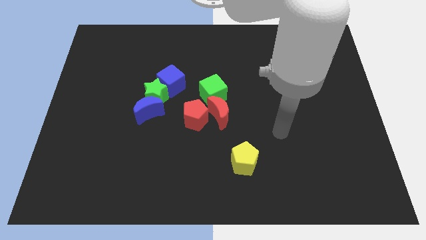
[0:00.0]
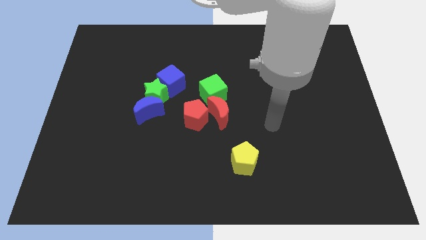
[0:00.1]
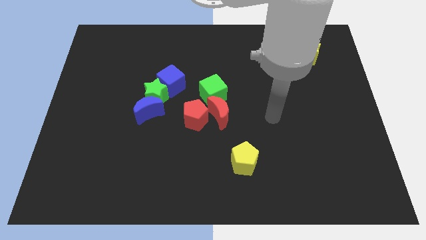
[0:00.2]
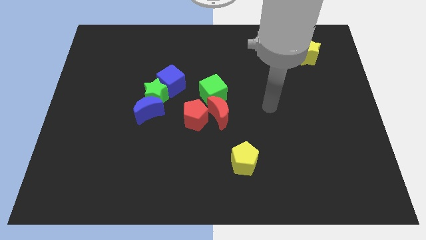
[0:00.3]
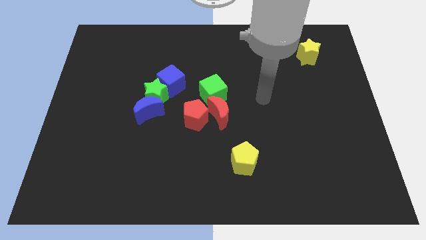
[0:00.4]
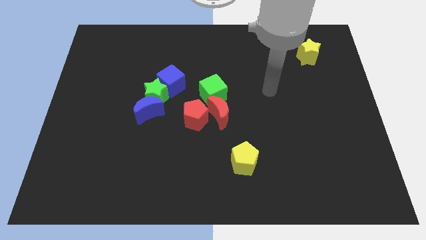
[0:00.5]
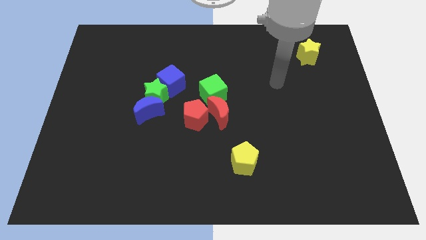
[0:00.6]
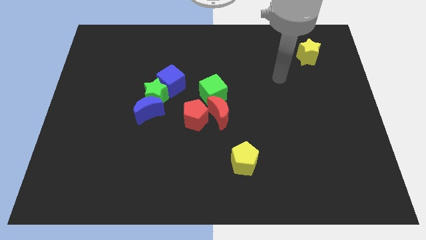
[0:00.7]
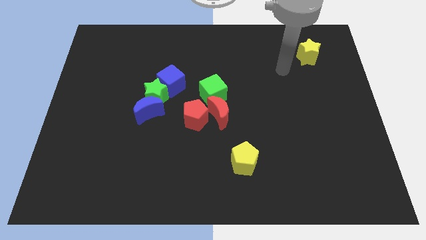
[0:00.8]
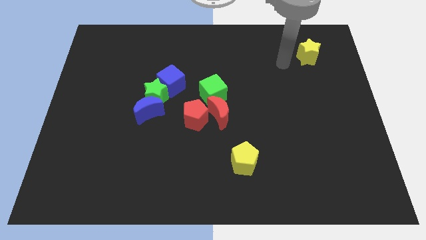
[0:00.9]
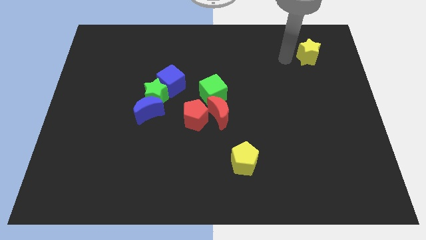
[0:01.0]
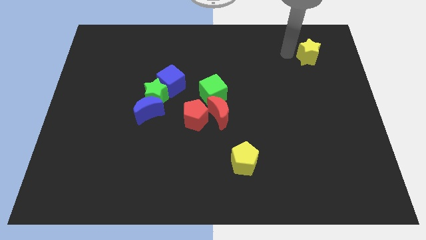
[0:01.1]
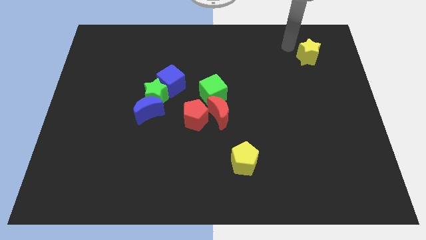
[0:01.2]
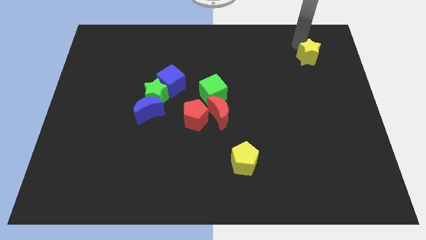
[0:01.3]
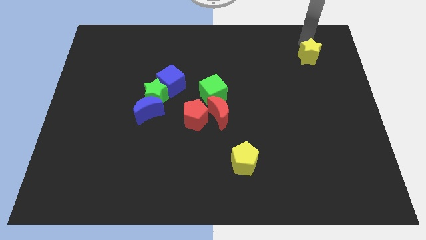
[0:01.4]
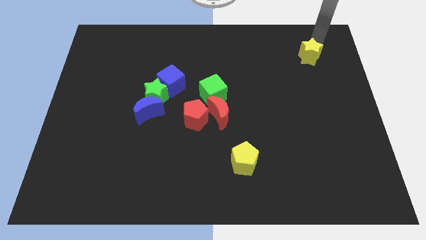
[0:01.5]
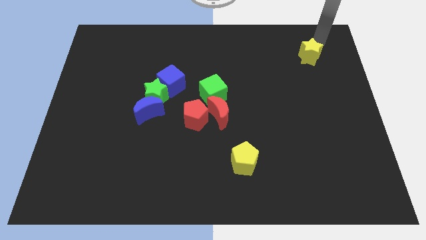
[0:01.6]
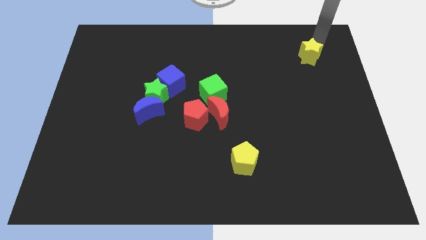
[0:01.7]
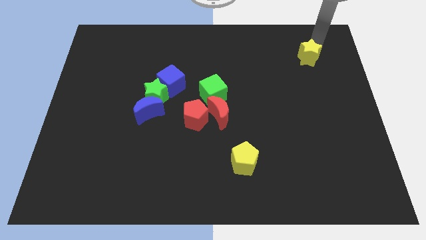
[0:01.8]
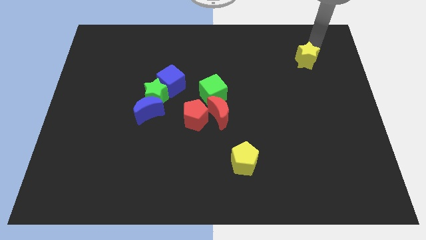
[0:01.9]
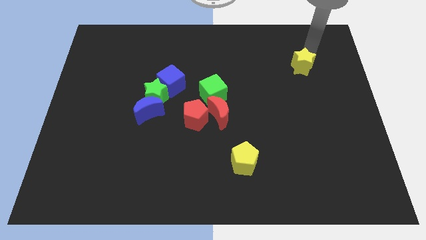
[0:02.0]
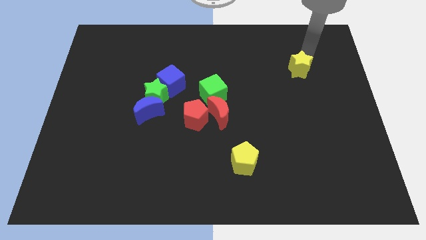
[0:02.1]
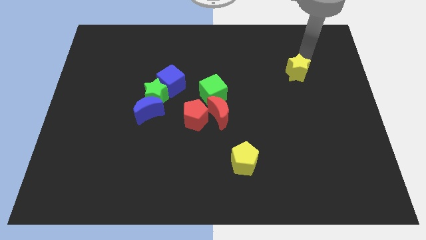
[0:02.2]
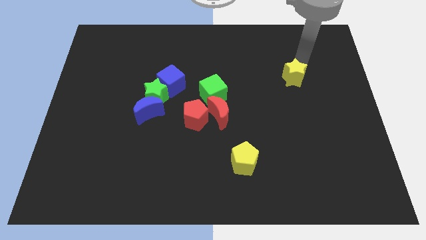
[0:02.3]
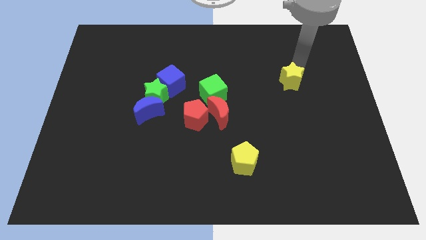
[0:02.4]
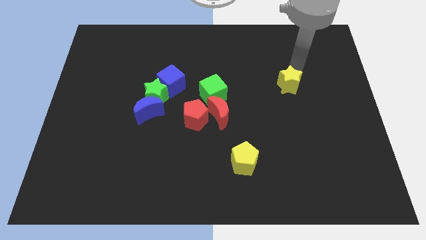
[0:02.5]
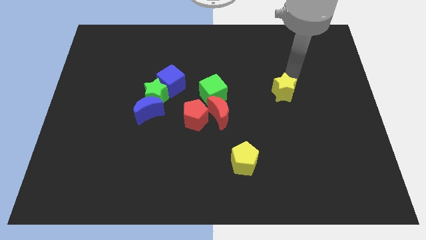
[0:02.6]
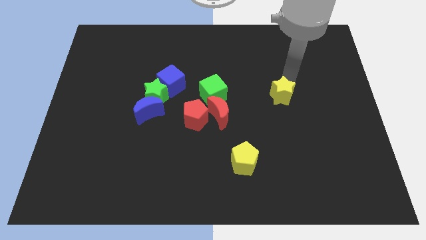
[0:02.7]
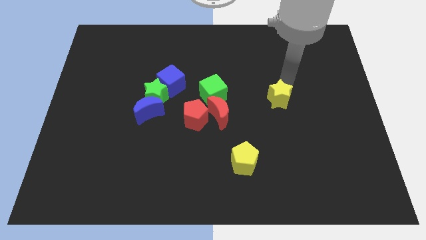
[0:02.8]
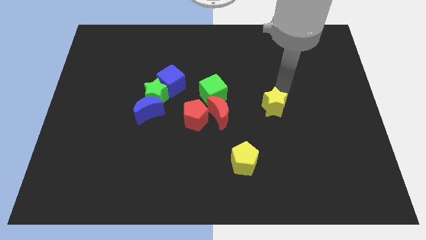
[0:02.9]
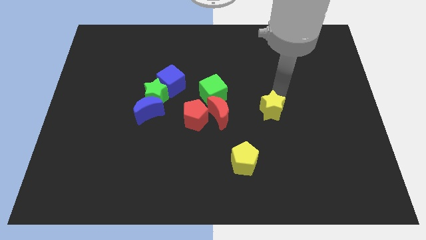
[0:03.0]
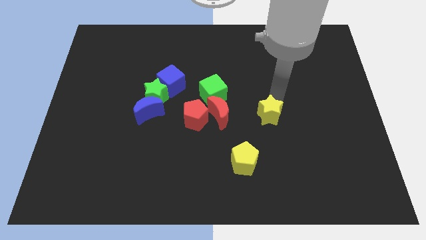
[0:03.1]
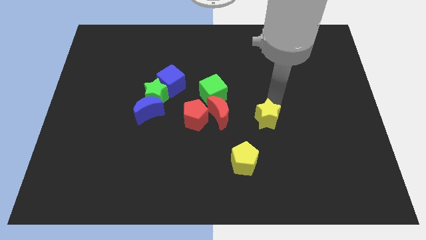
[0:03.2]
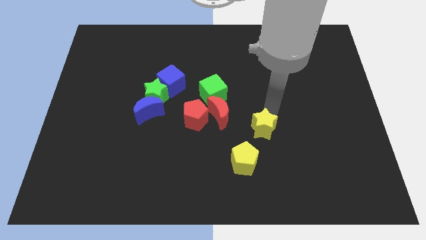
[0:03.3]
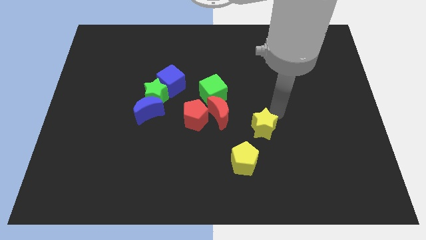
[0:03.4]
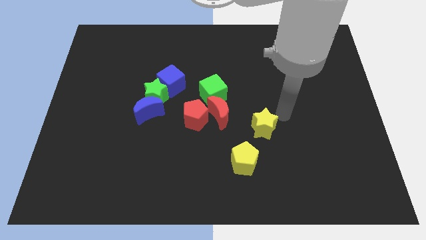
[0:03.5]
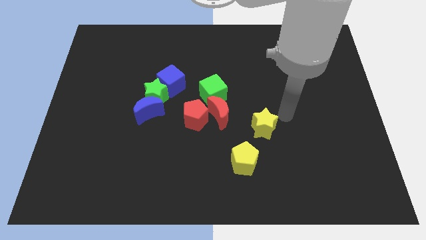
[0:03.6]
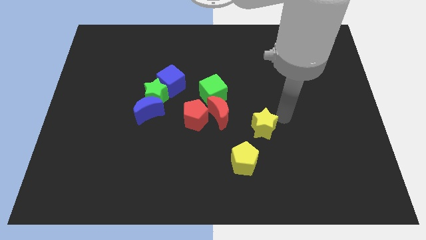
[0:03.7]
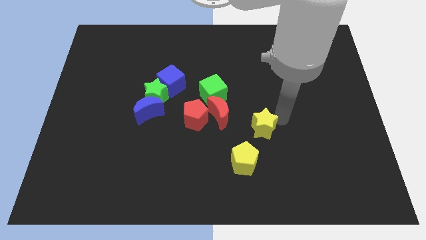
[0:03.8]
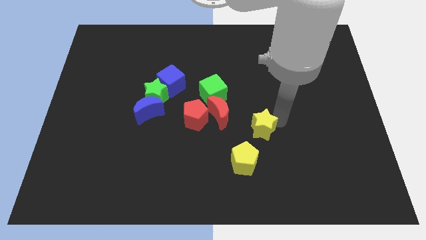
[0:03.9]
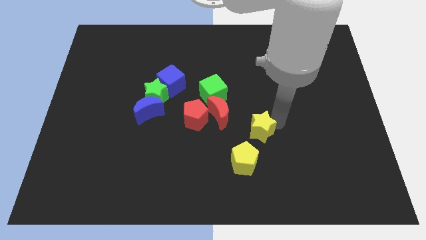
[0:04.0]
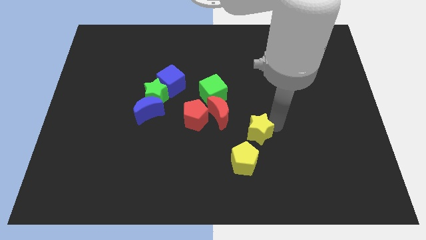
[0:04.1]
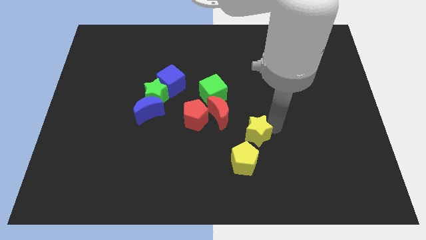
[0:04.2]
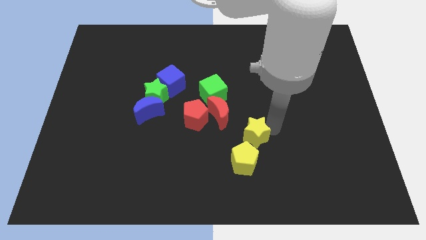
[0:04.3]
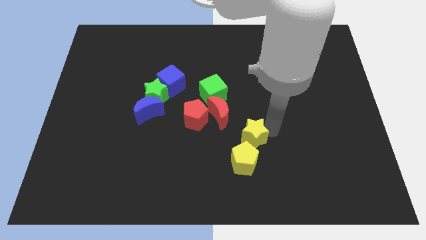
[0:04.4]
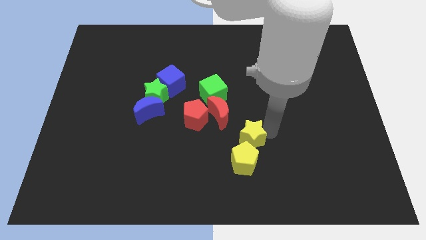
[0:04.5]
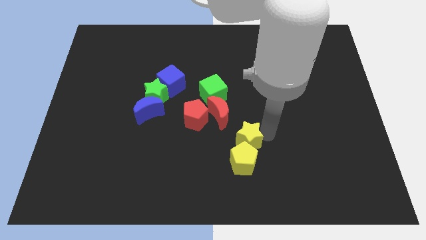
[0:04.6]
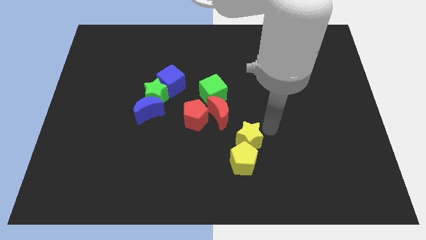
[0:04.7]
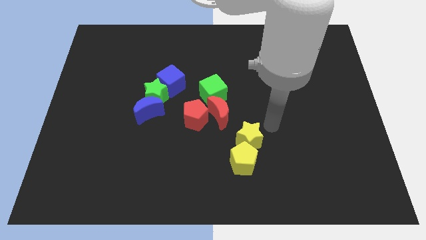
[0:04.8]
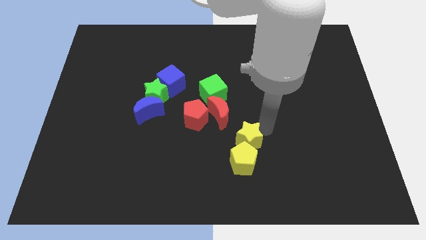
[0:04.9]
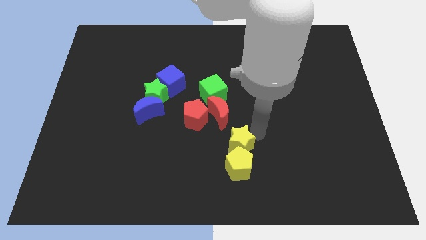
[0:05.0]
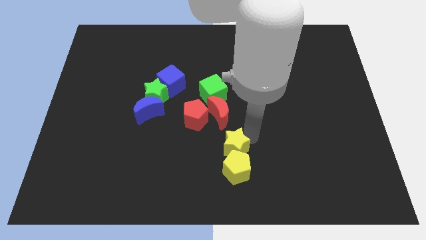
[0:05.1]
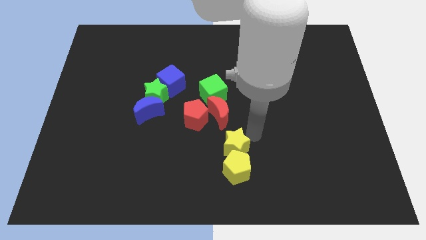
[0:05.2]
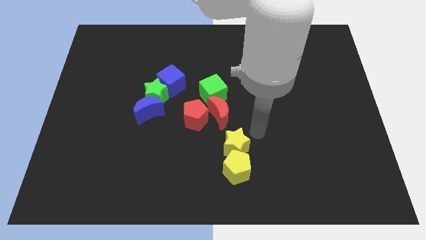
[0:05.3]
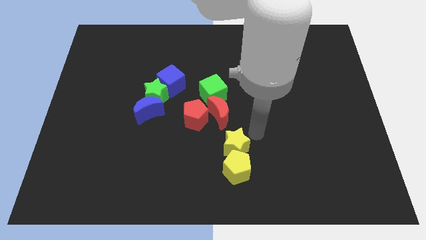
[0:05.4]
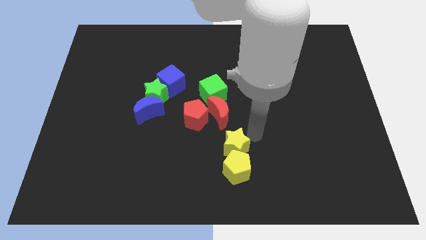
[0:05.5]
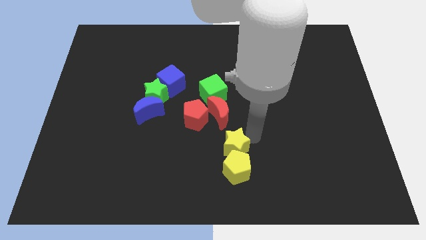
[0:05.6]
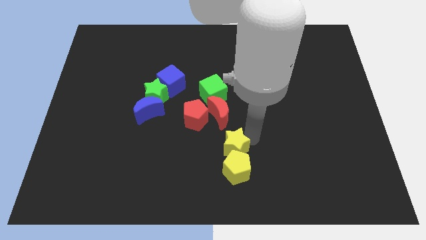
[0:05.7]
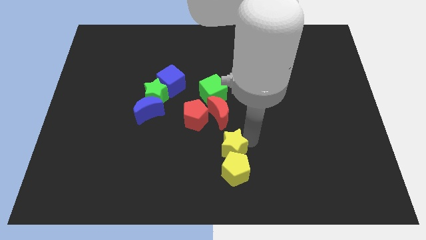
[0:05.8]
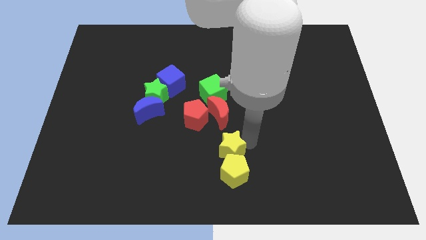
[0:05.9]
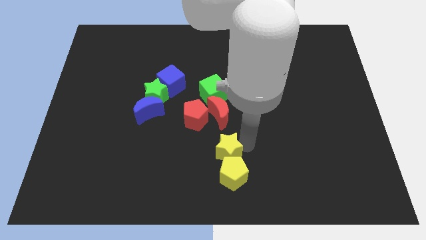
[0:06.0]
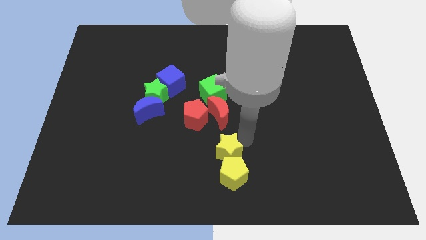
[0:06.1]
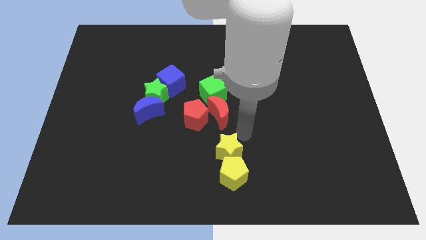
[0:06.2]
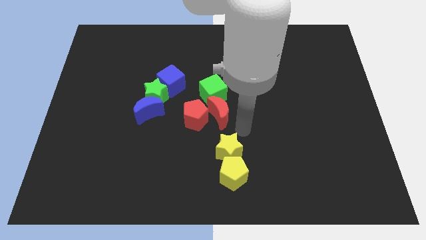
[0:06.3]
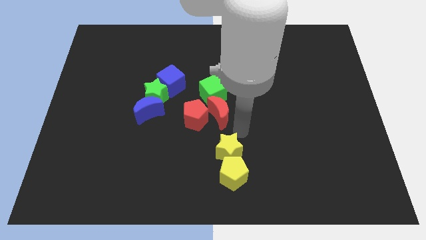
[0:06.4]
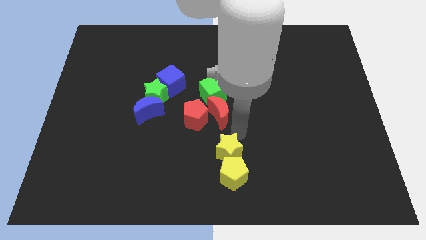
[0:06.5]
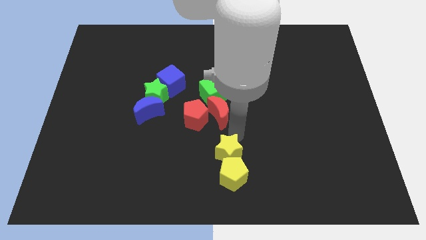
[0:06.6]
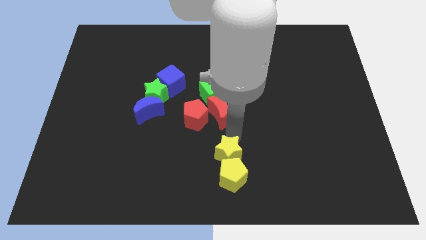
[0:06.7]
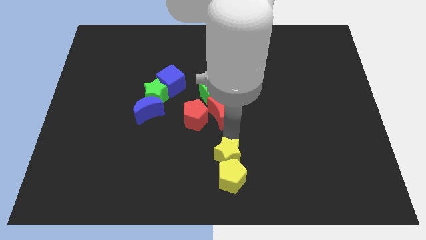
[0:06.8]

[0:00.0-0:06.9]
slide the yellow star to the bottom
